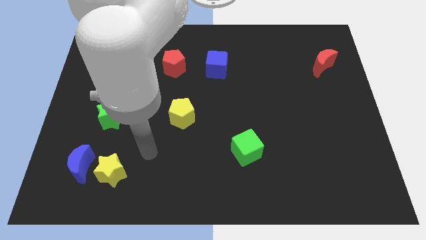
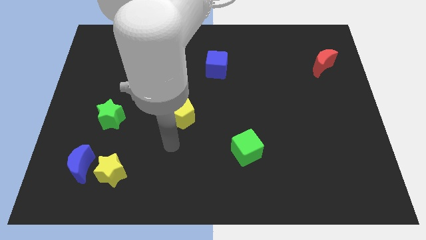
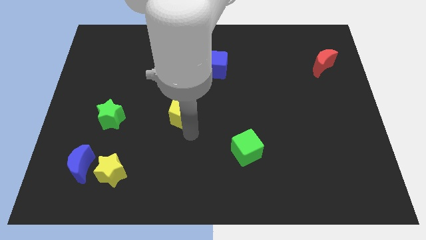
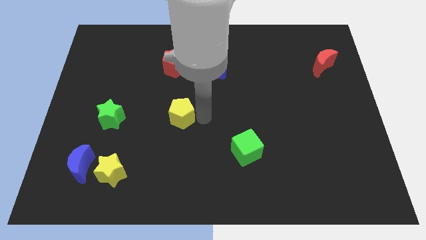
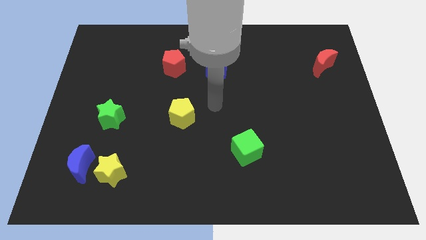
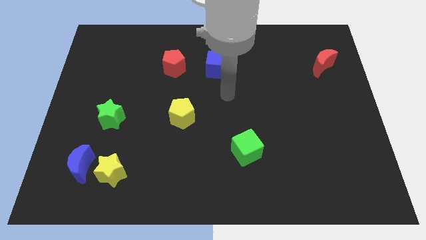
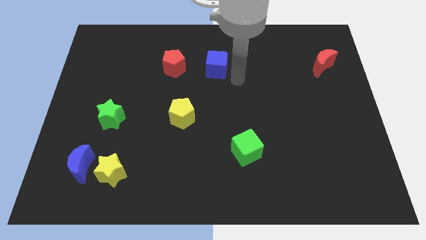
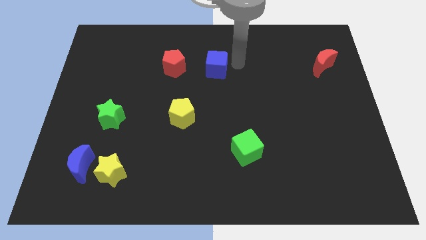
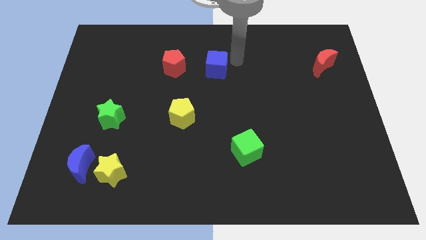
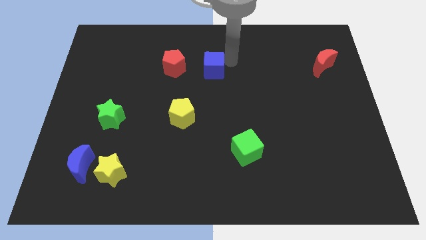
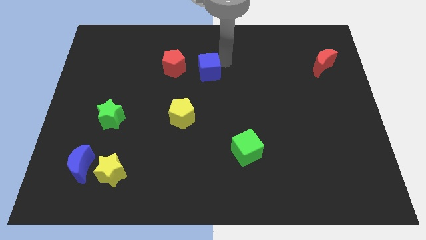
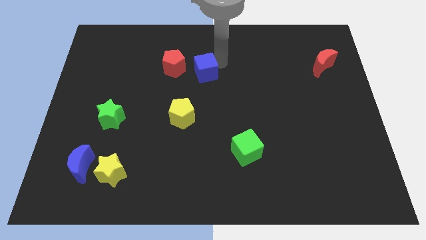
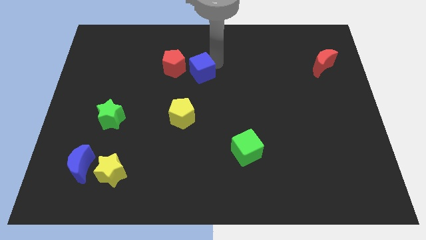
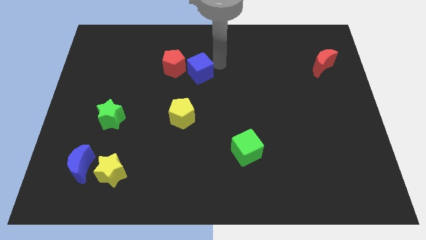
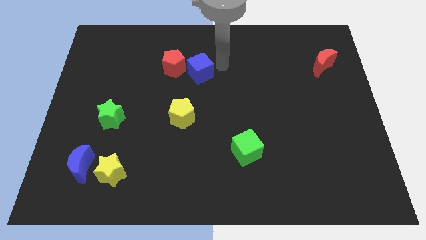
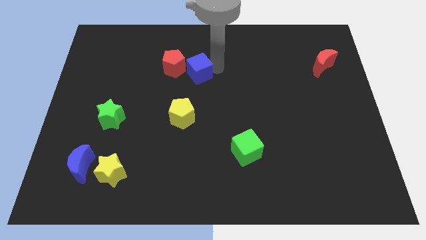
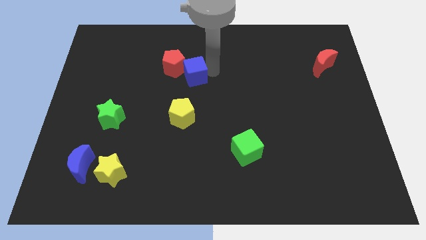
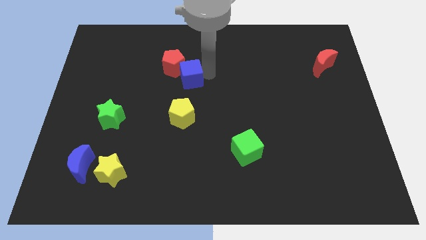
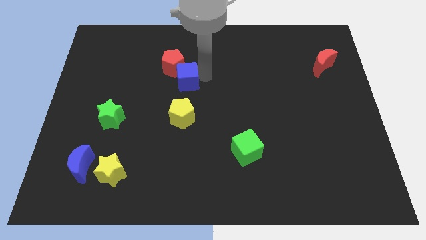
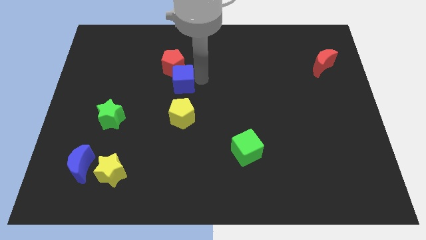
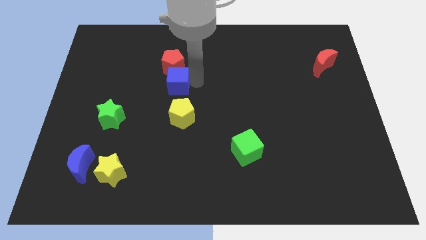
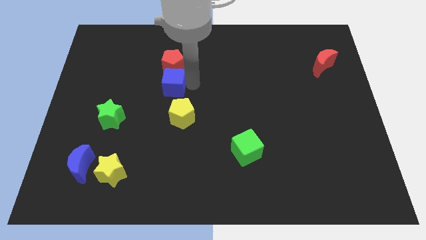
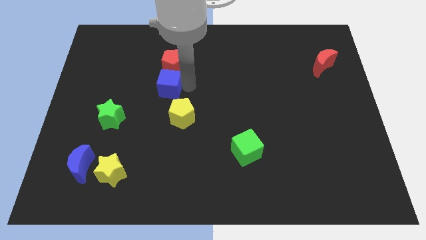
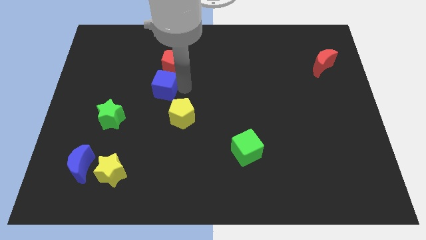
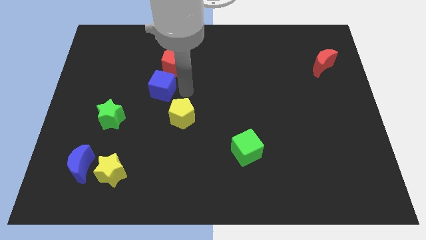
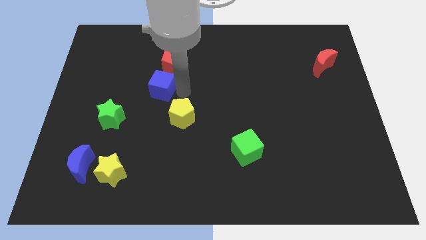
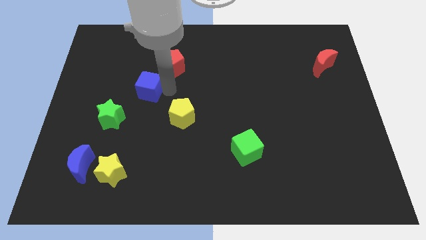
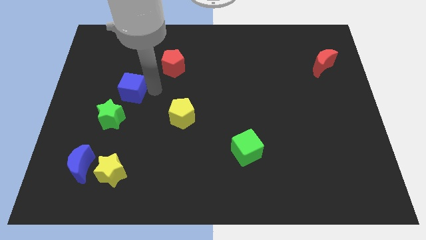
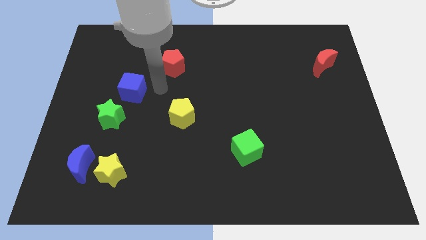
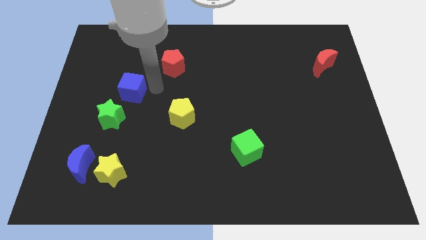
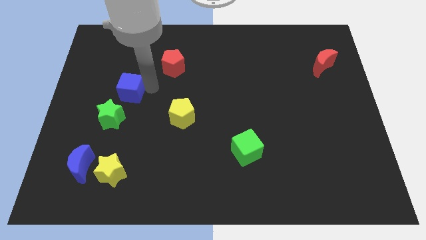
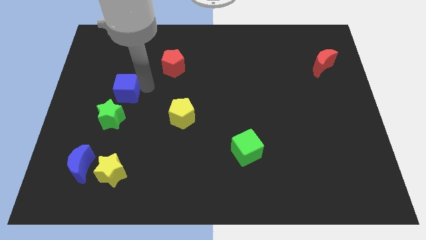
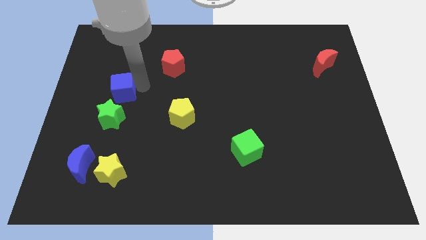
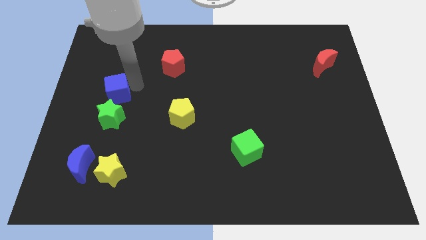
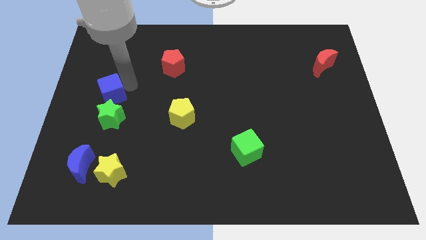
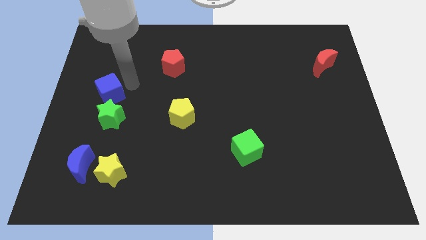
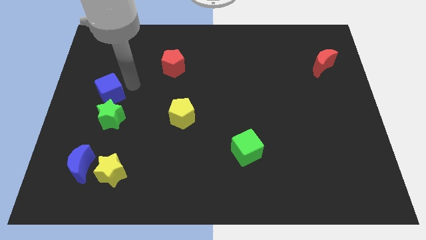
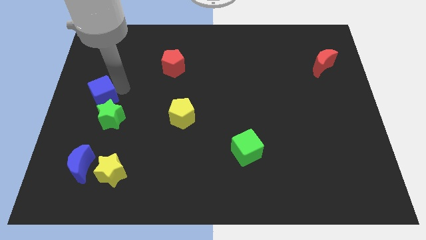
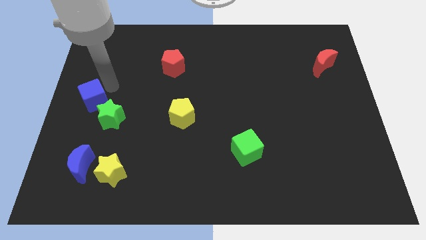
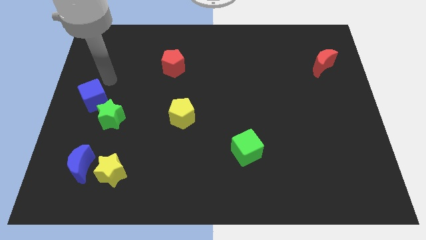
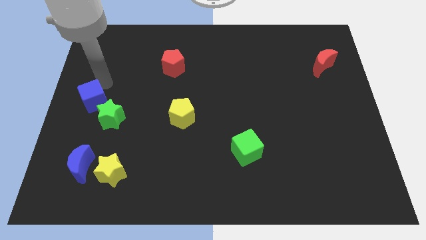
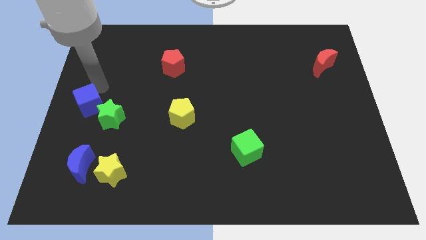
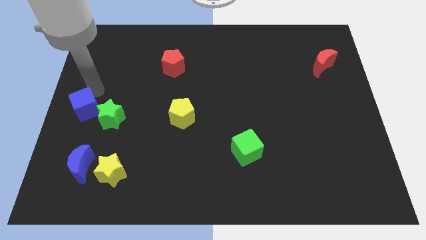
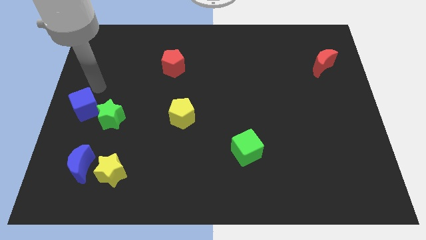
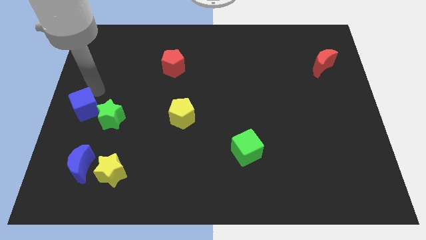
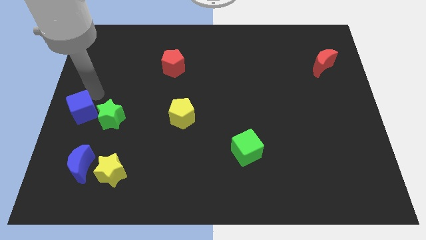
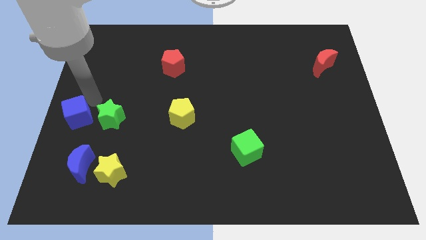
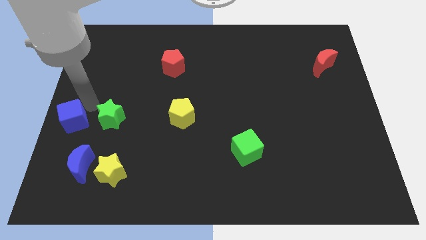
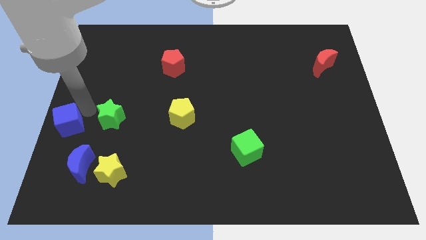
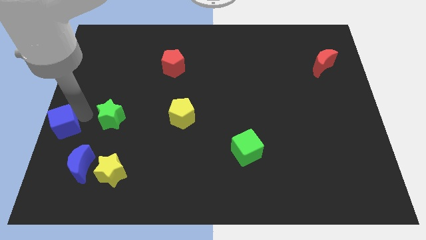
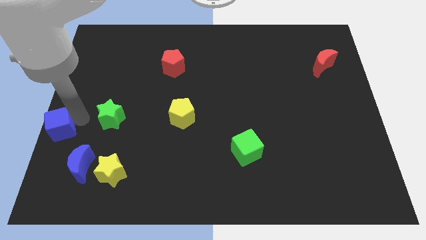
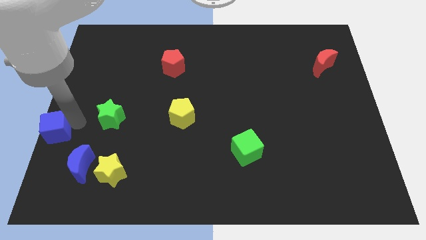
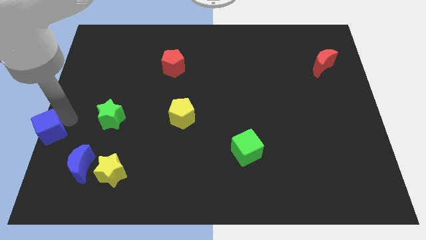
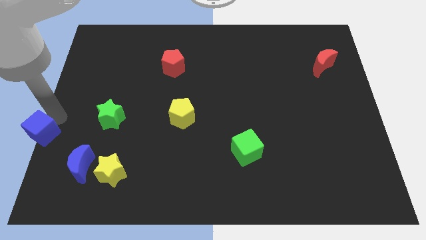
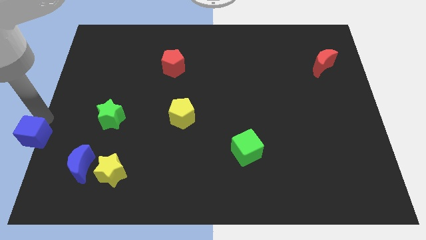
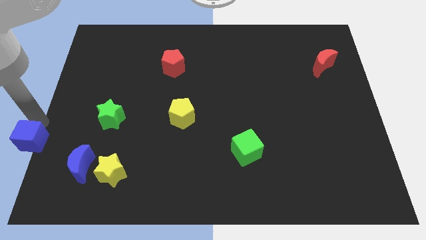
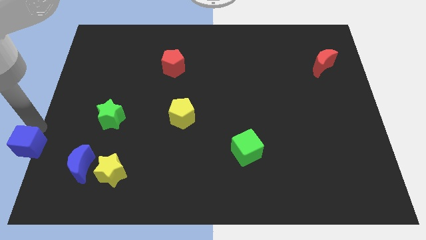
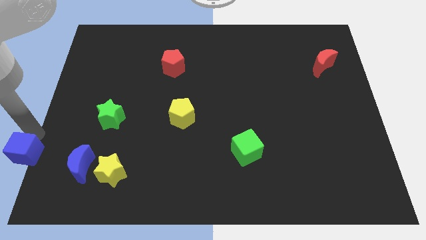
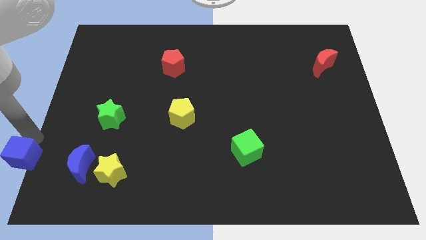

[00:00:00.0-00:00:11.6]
push the blue cube to the bottom left
